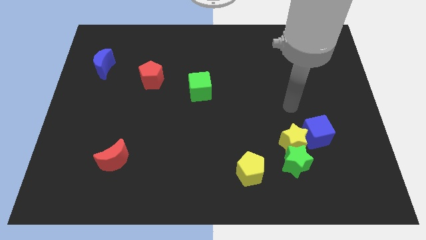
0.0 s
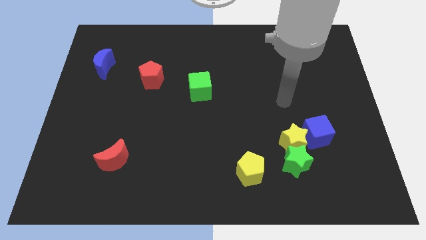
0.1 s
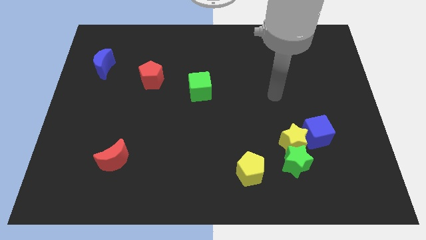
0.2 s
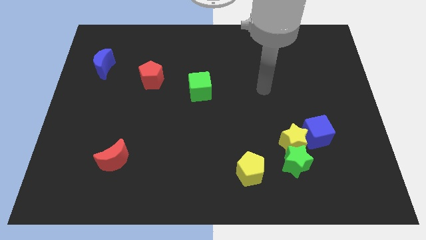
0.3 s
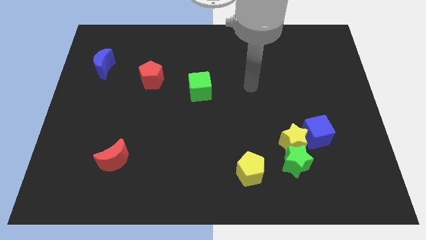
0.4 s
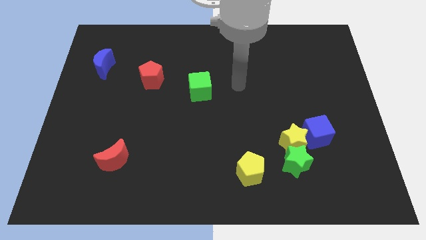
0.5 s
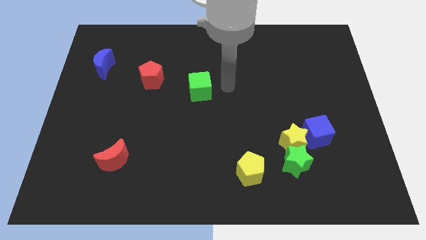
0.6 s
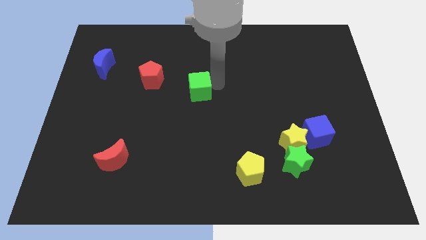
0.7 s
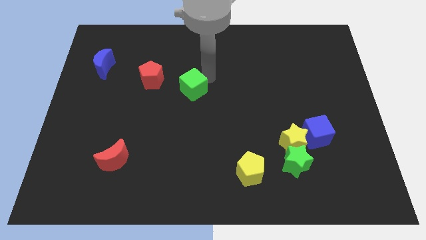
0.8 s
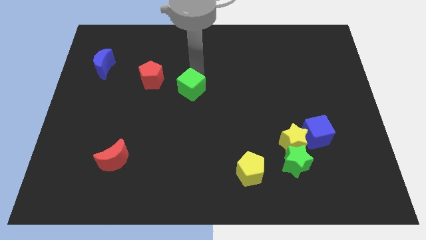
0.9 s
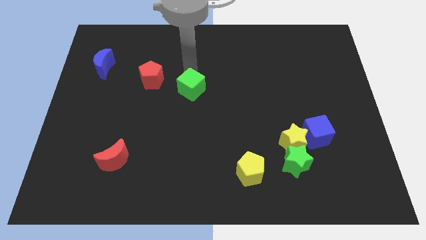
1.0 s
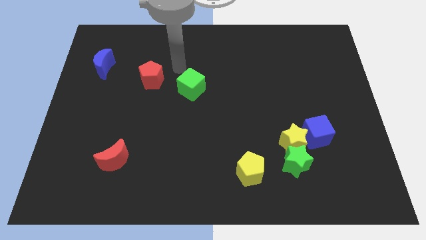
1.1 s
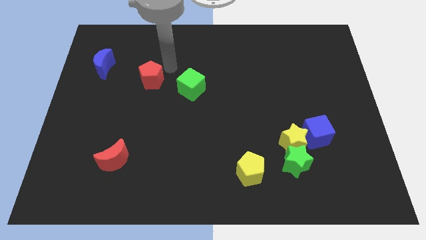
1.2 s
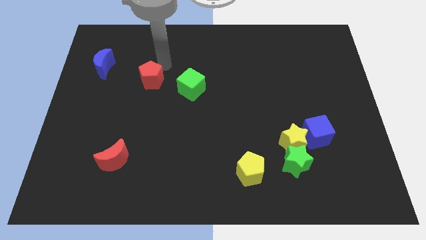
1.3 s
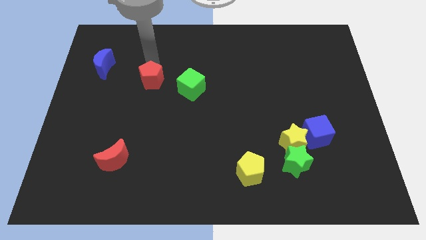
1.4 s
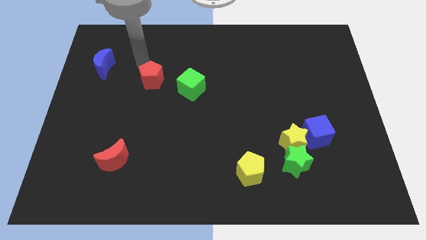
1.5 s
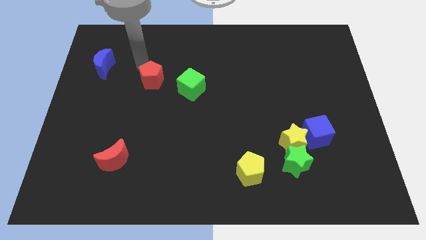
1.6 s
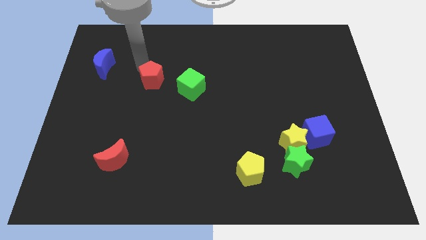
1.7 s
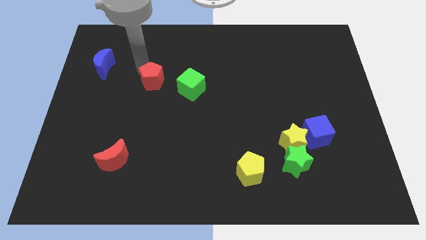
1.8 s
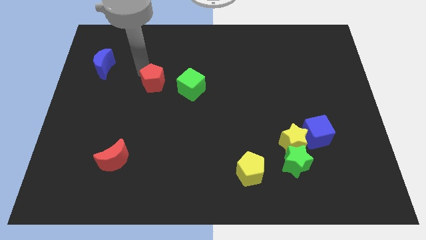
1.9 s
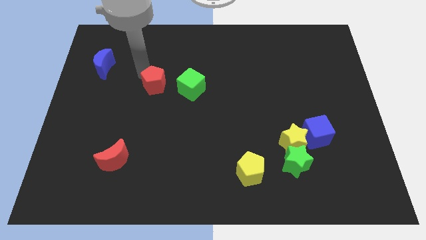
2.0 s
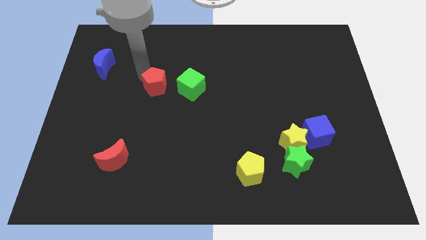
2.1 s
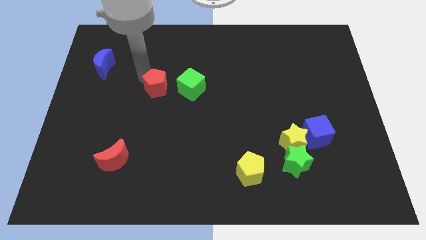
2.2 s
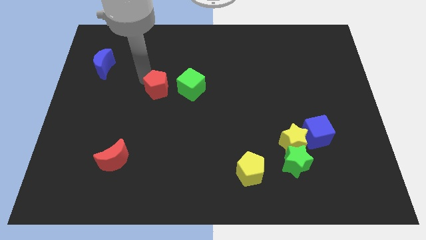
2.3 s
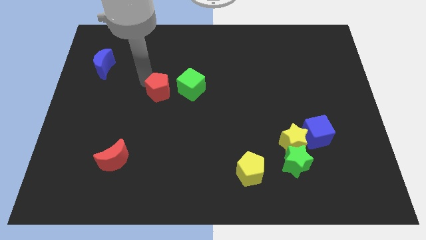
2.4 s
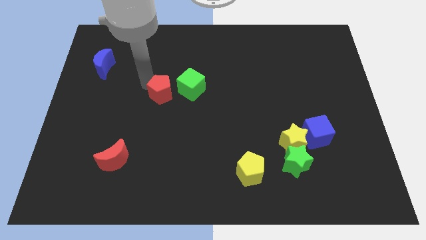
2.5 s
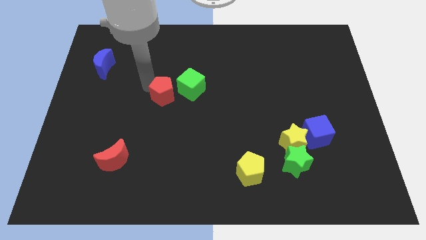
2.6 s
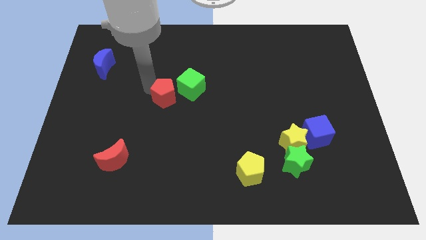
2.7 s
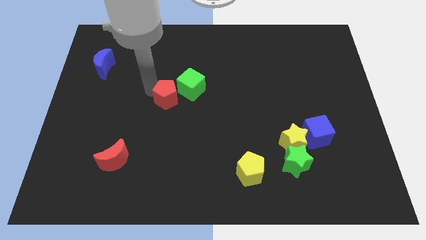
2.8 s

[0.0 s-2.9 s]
move the red pentagon downwards and to the right somewhat

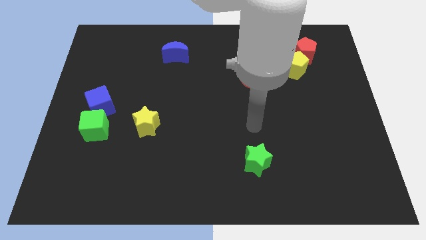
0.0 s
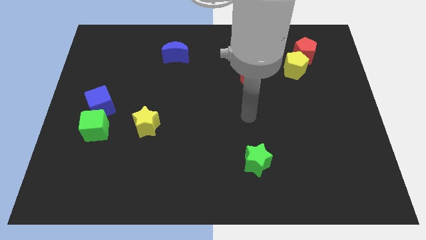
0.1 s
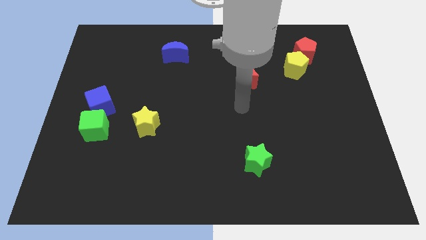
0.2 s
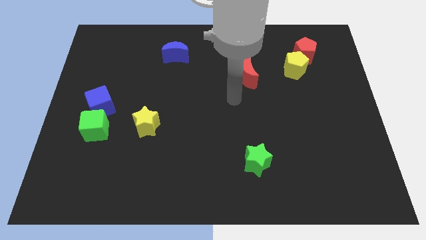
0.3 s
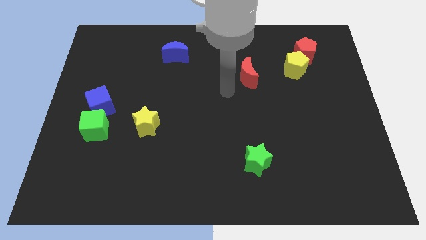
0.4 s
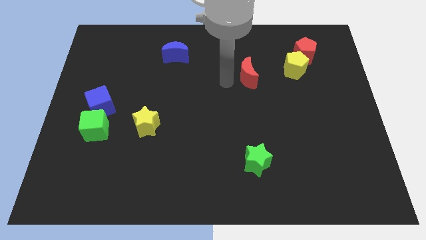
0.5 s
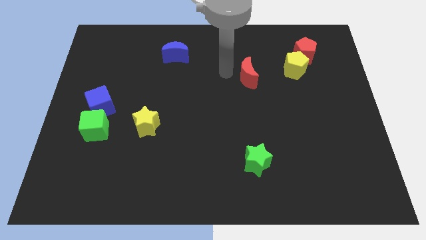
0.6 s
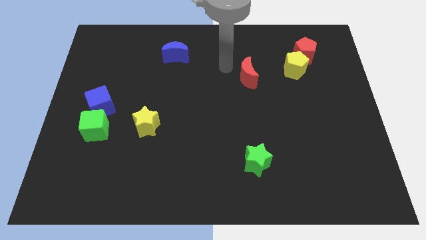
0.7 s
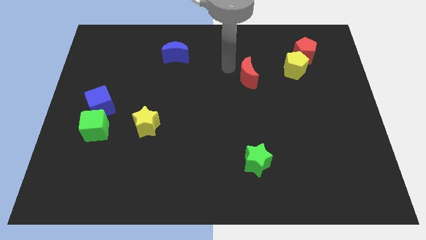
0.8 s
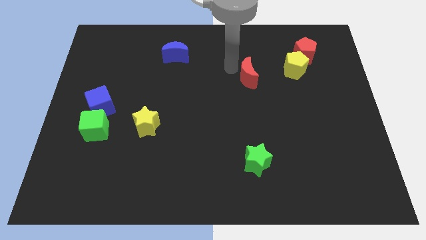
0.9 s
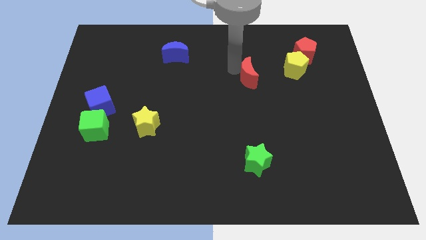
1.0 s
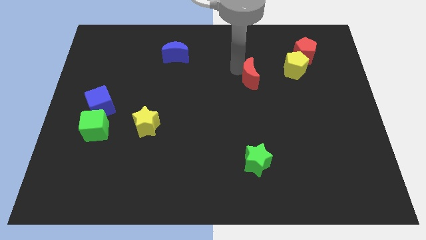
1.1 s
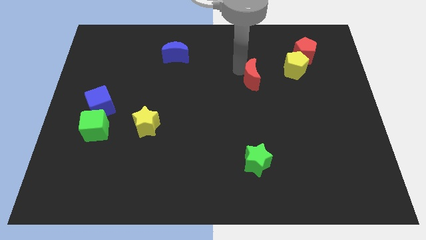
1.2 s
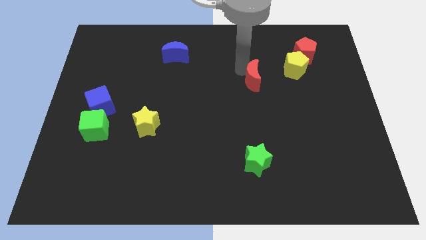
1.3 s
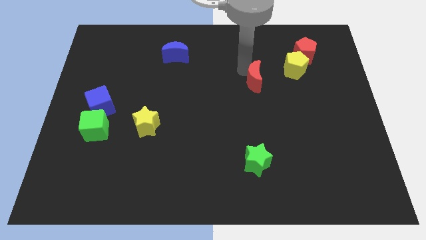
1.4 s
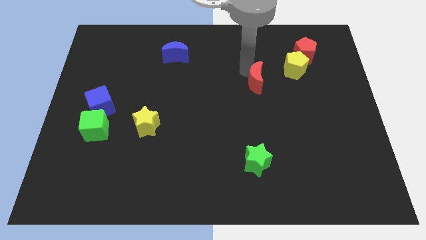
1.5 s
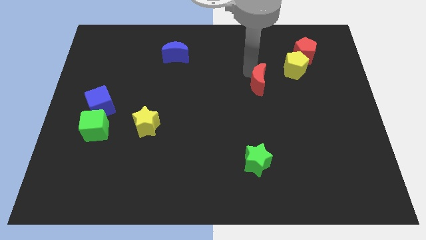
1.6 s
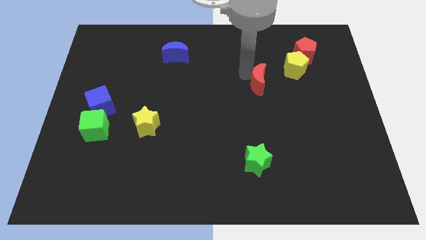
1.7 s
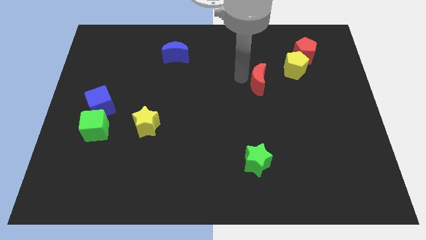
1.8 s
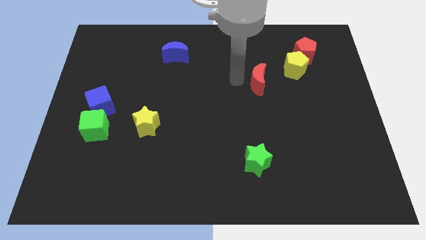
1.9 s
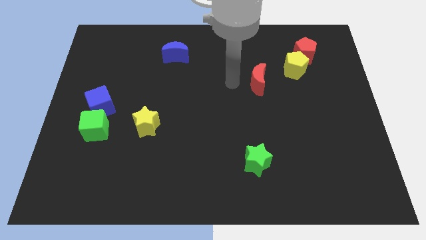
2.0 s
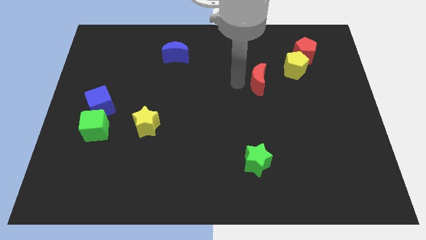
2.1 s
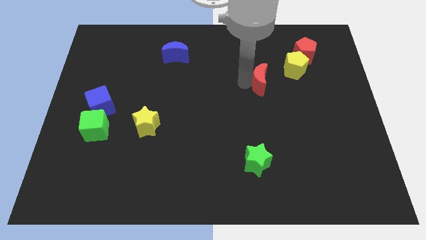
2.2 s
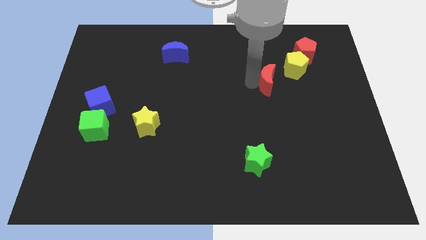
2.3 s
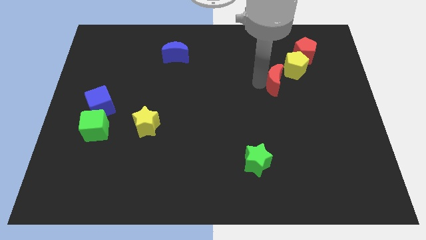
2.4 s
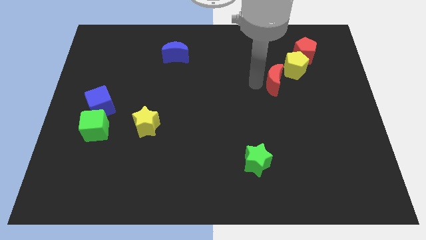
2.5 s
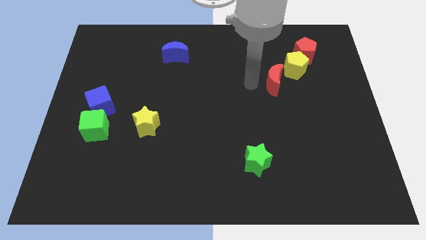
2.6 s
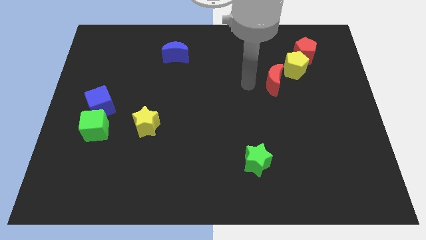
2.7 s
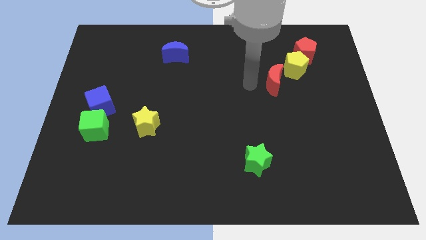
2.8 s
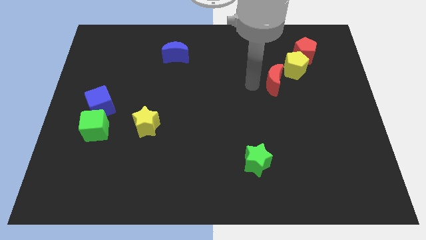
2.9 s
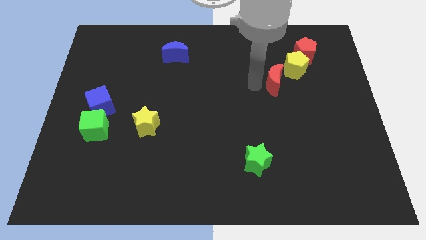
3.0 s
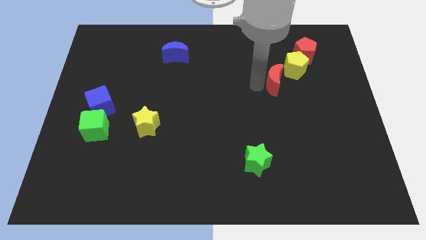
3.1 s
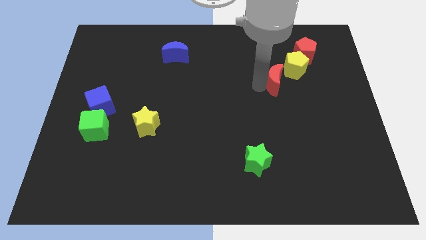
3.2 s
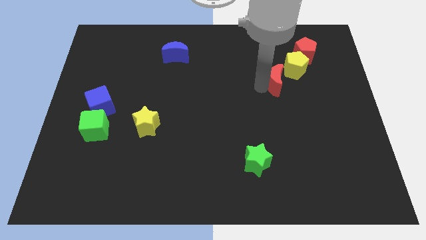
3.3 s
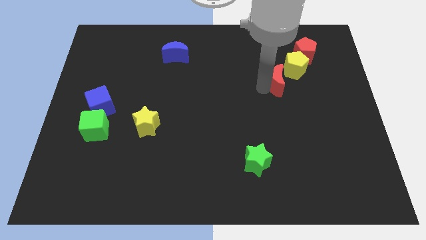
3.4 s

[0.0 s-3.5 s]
slightly push the red moon to the right

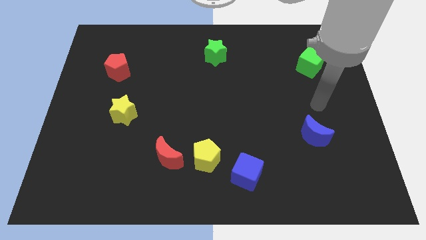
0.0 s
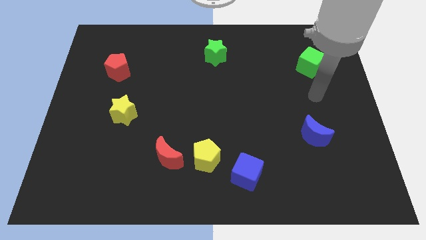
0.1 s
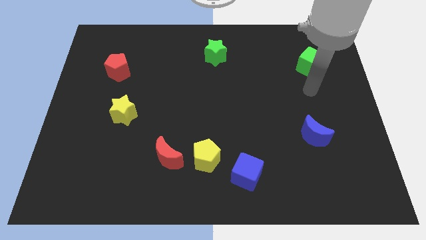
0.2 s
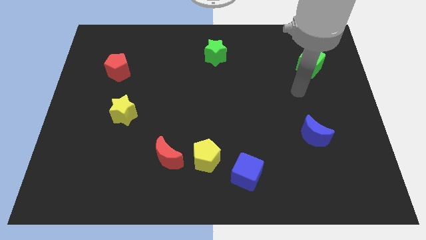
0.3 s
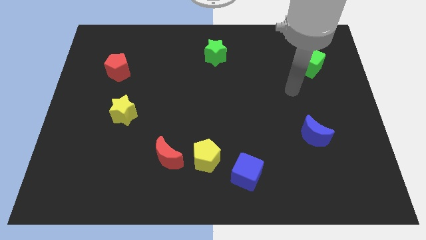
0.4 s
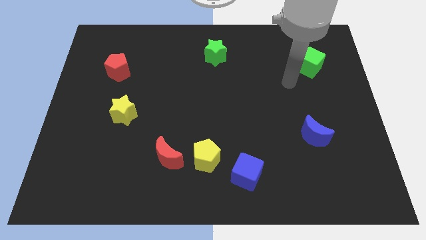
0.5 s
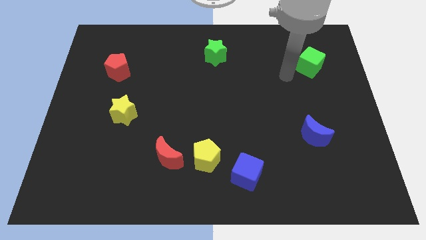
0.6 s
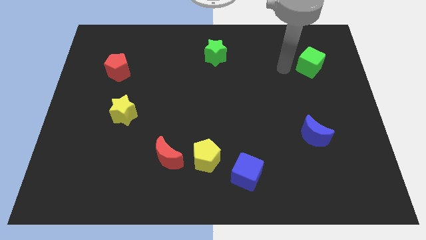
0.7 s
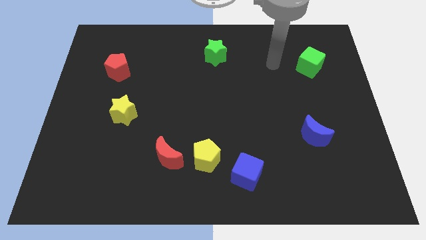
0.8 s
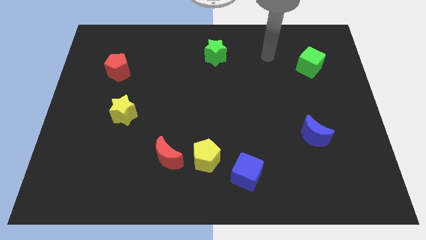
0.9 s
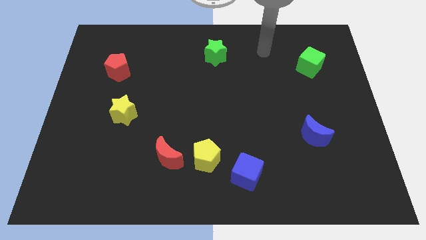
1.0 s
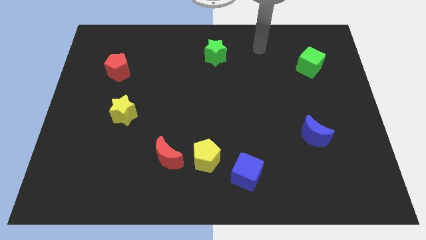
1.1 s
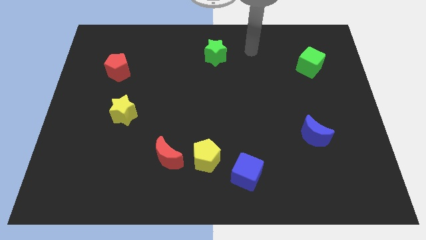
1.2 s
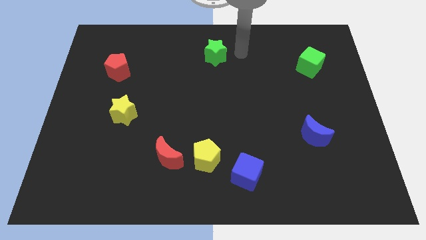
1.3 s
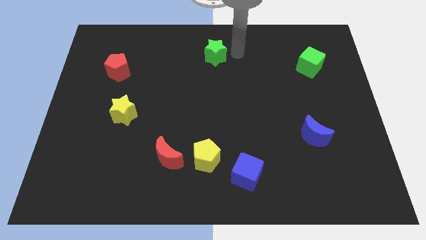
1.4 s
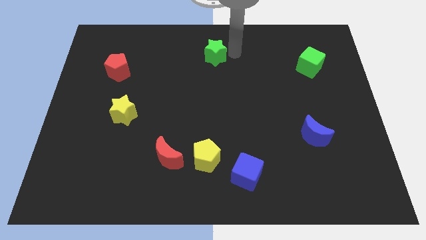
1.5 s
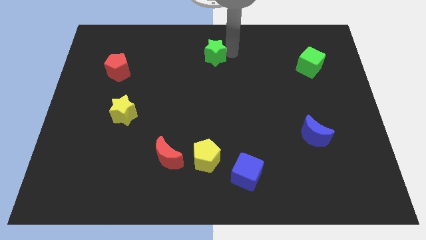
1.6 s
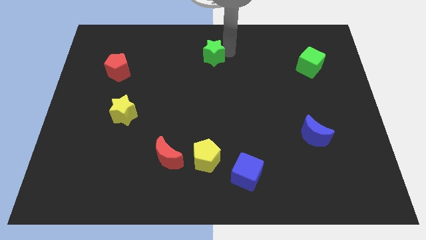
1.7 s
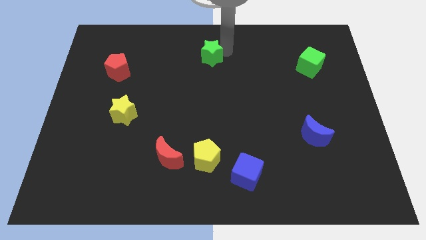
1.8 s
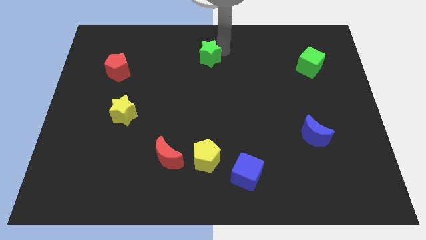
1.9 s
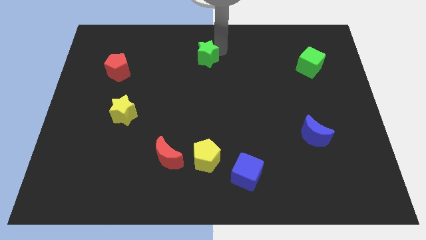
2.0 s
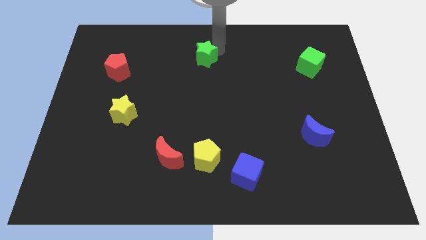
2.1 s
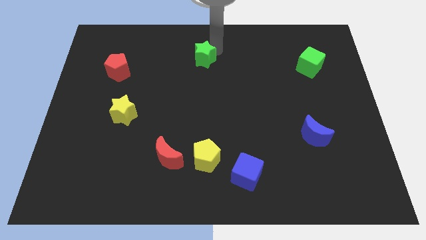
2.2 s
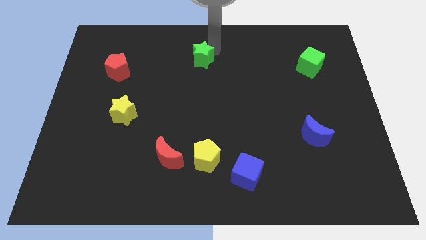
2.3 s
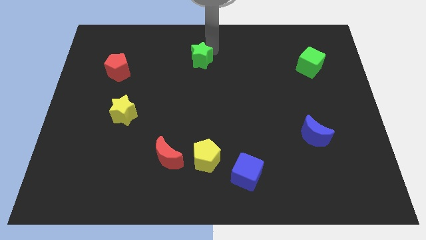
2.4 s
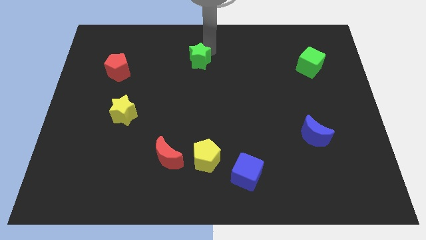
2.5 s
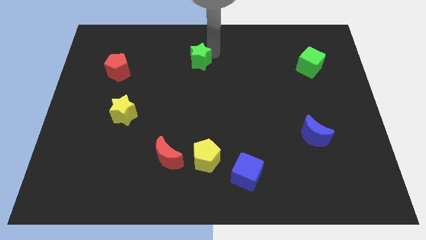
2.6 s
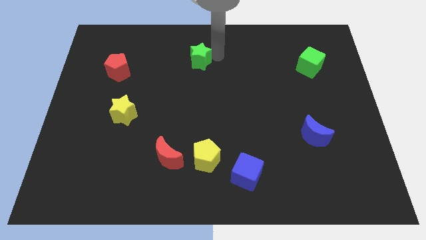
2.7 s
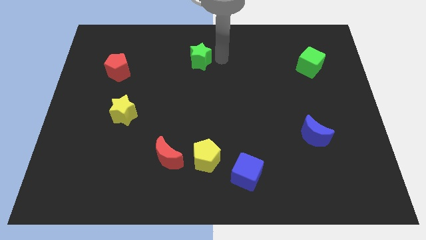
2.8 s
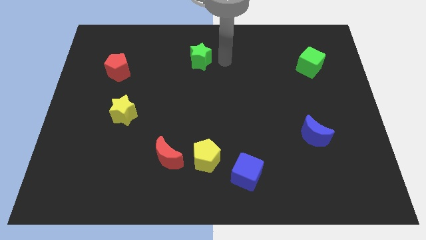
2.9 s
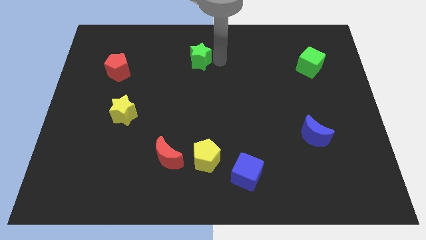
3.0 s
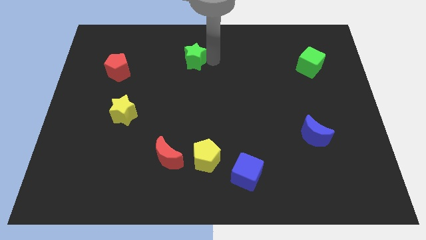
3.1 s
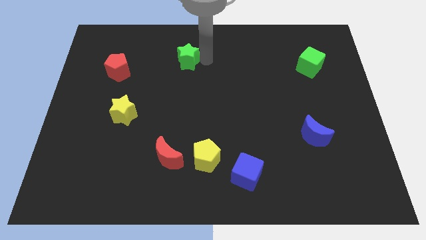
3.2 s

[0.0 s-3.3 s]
push the green star left a little bit
